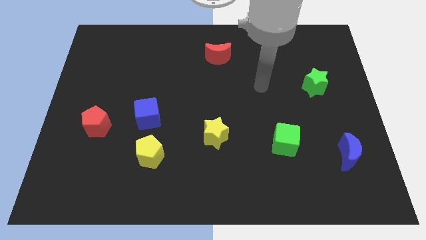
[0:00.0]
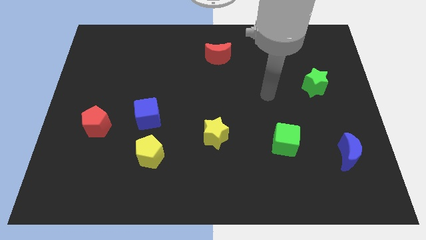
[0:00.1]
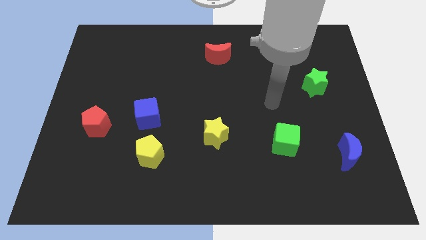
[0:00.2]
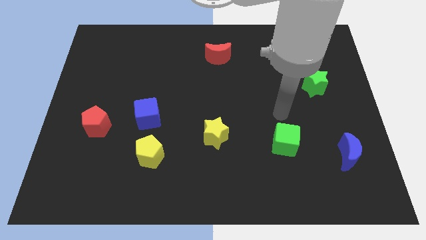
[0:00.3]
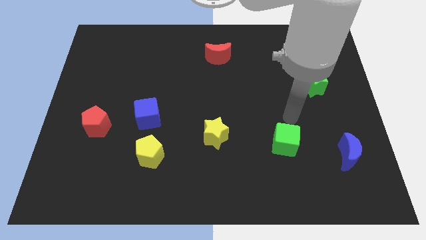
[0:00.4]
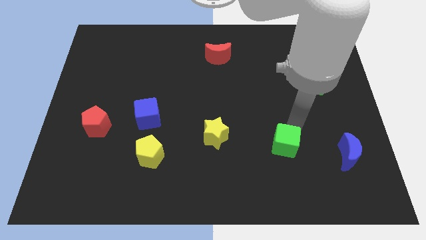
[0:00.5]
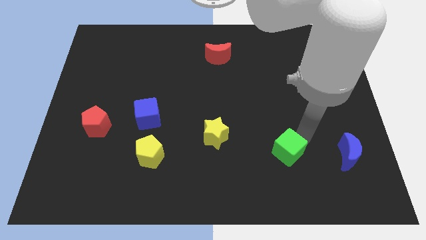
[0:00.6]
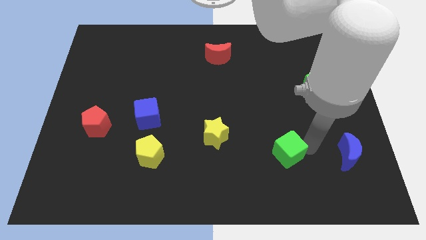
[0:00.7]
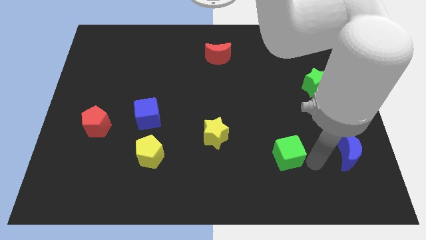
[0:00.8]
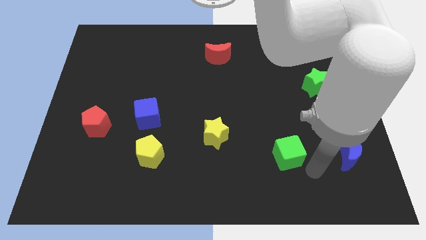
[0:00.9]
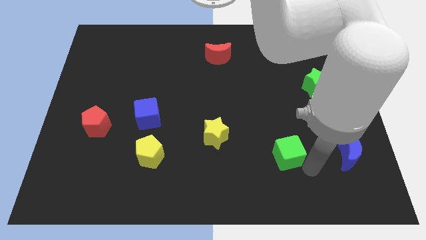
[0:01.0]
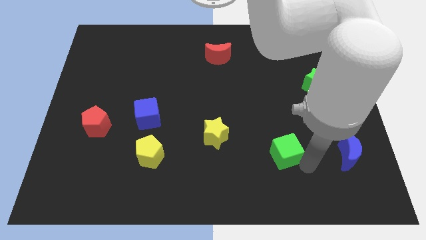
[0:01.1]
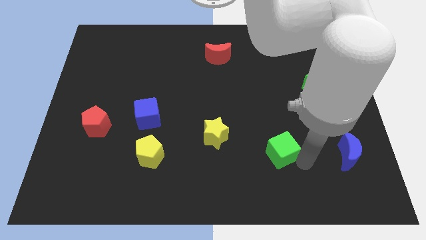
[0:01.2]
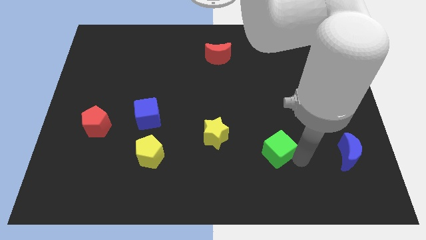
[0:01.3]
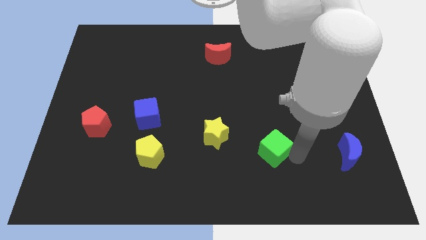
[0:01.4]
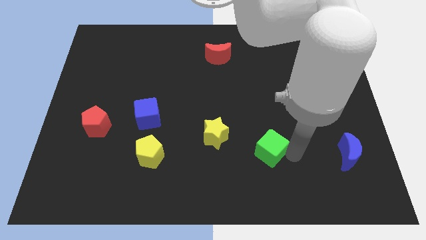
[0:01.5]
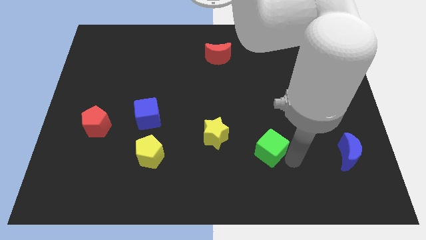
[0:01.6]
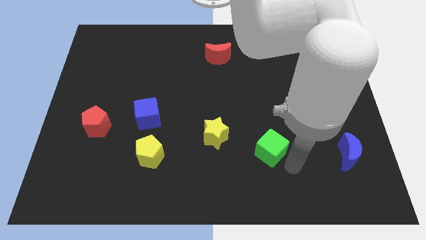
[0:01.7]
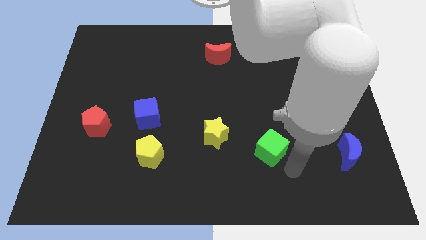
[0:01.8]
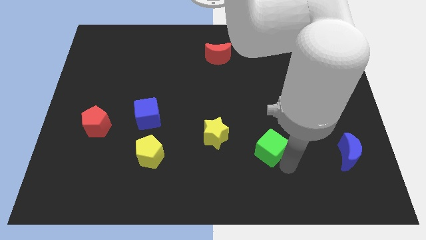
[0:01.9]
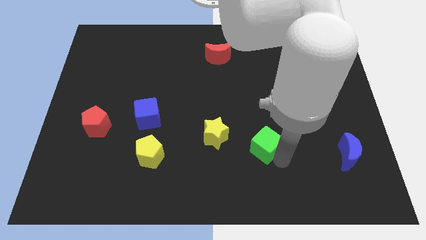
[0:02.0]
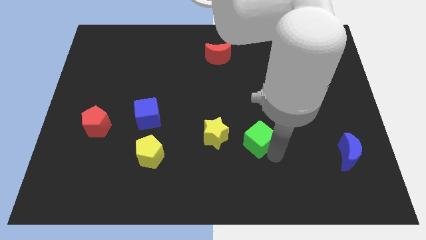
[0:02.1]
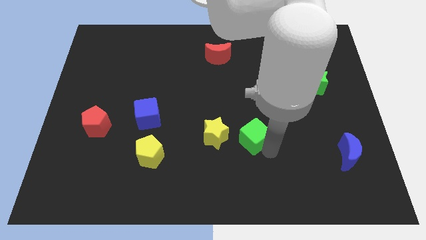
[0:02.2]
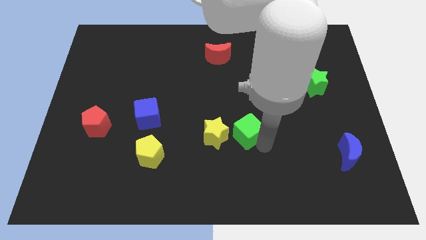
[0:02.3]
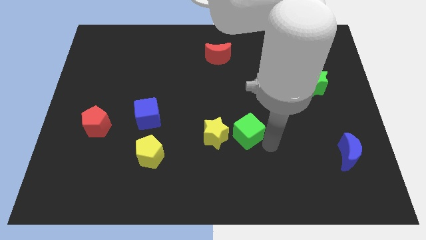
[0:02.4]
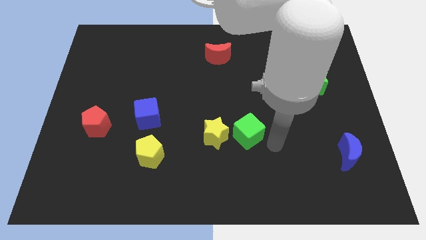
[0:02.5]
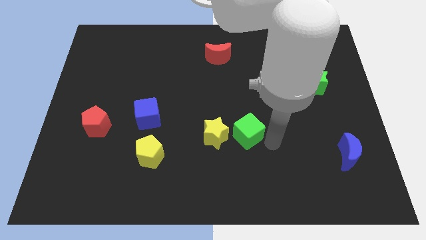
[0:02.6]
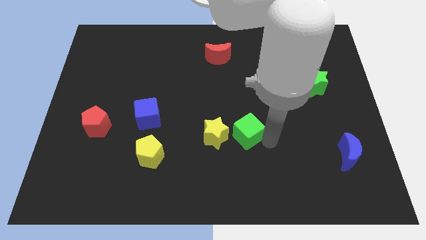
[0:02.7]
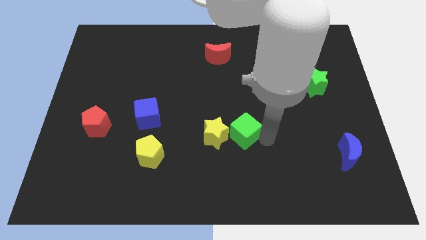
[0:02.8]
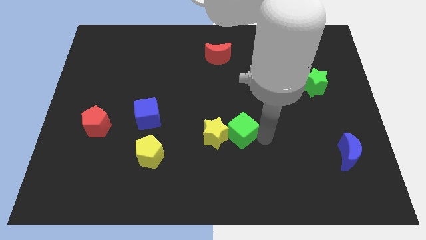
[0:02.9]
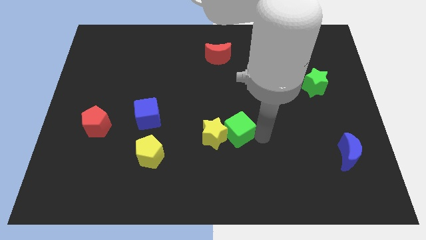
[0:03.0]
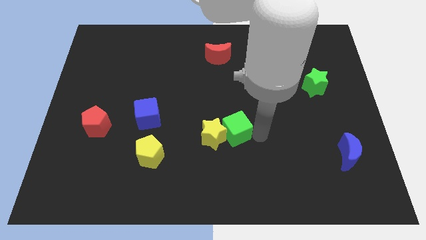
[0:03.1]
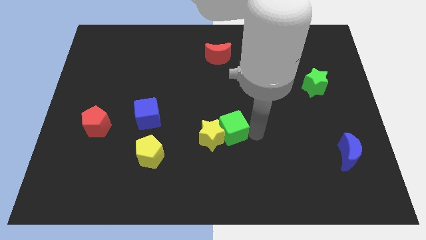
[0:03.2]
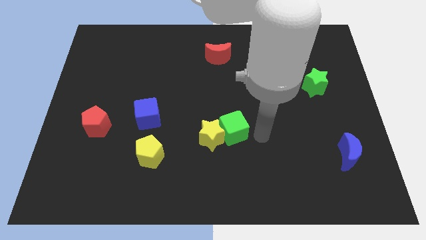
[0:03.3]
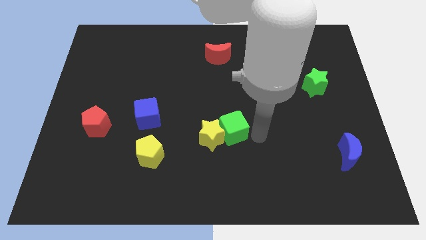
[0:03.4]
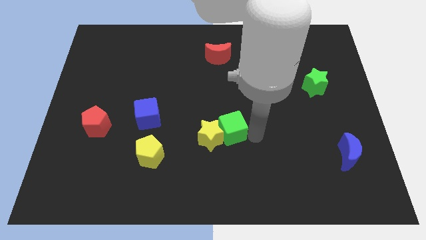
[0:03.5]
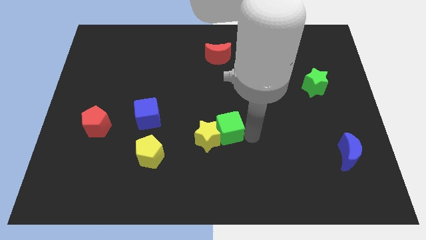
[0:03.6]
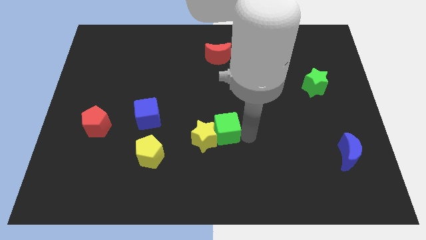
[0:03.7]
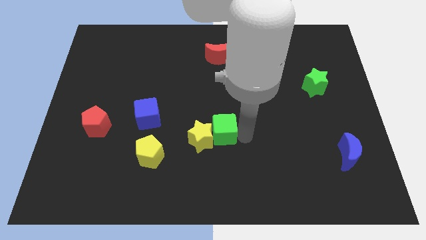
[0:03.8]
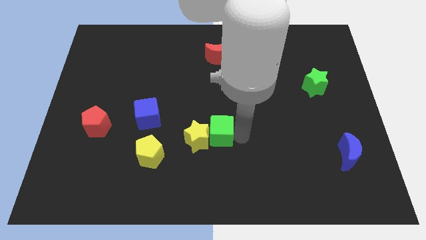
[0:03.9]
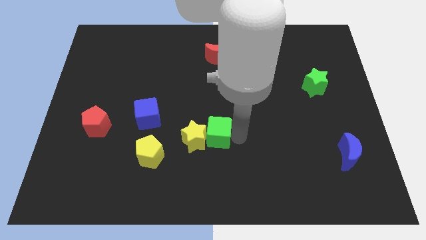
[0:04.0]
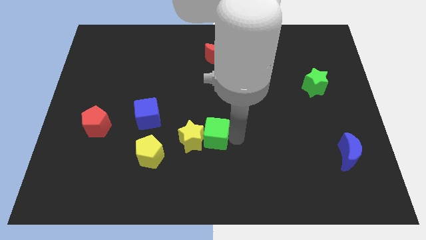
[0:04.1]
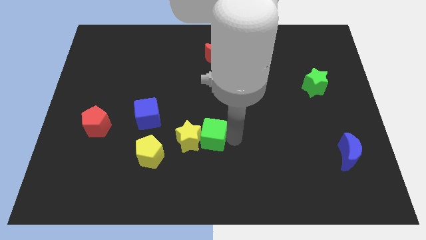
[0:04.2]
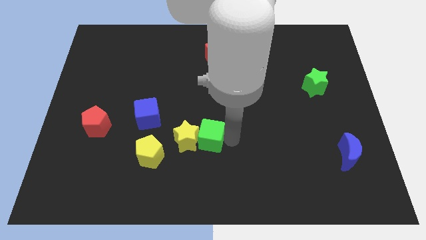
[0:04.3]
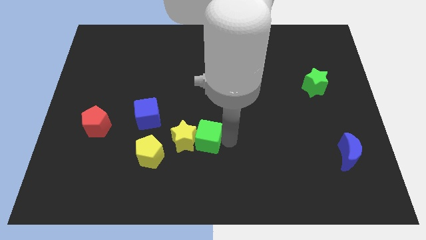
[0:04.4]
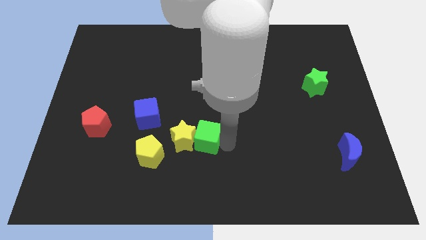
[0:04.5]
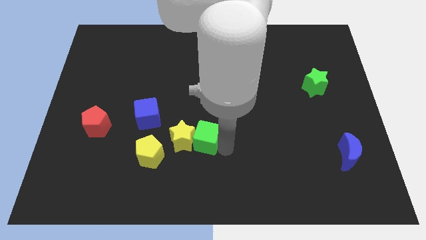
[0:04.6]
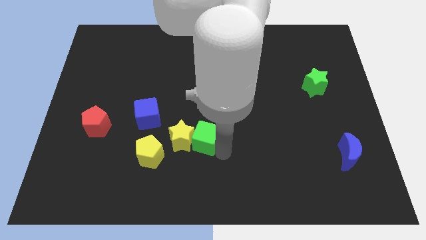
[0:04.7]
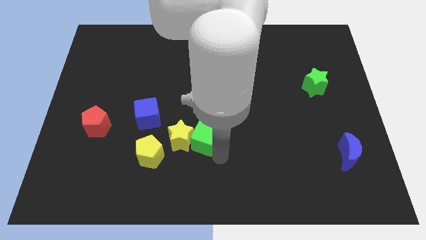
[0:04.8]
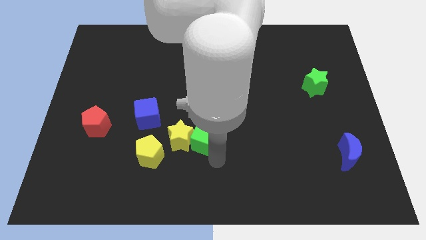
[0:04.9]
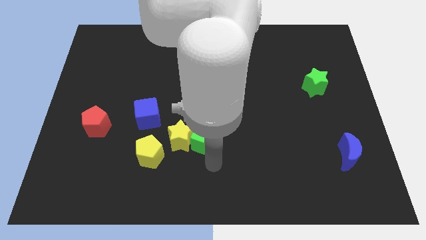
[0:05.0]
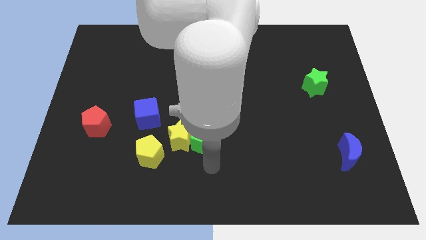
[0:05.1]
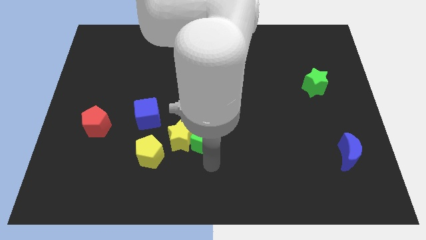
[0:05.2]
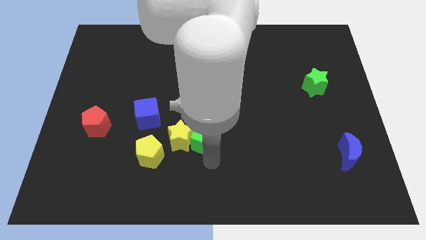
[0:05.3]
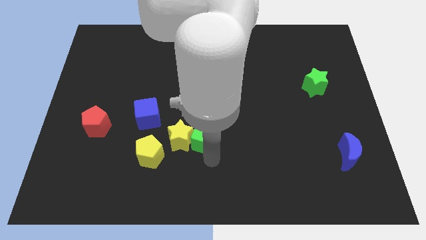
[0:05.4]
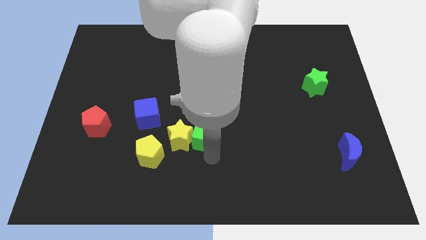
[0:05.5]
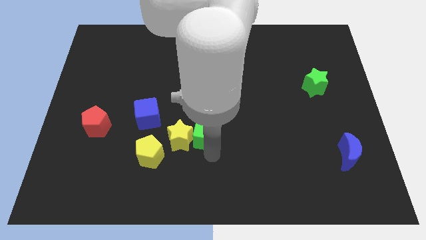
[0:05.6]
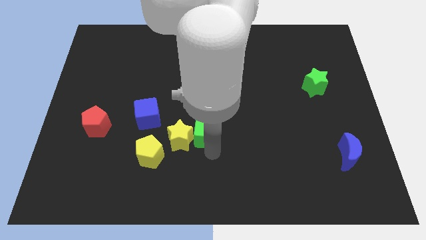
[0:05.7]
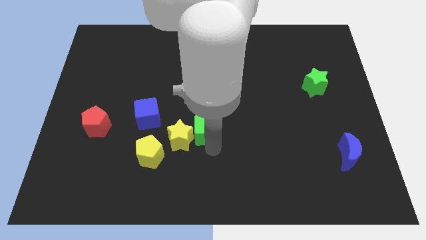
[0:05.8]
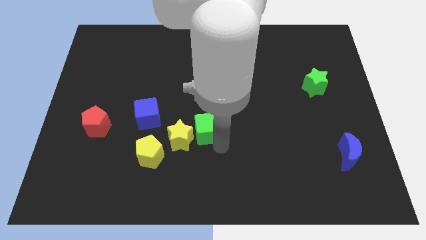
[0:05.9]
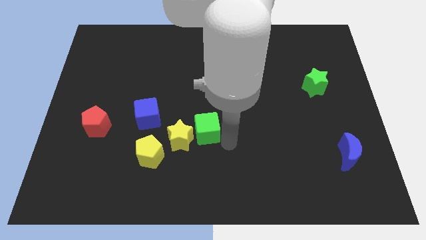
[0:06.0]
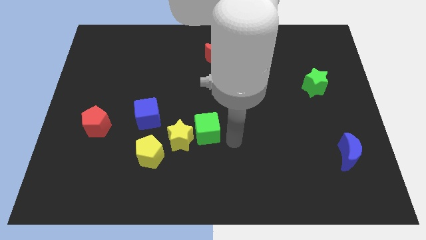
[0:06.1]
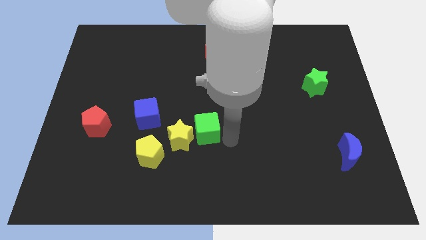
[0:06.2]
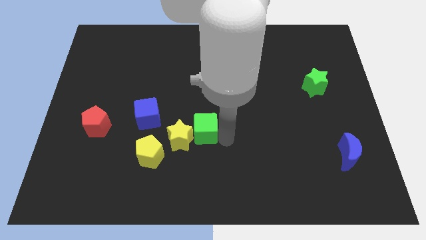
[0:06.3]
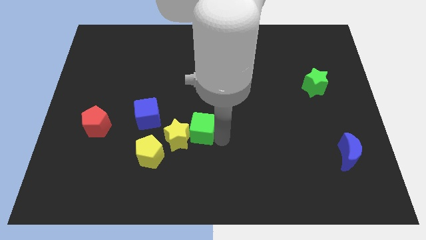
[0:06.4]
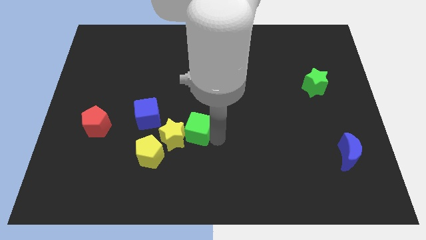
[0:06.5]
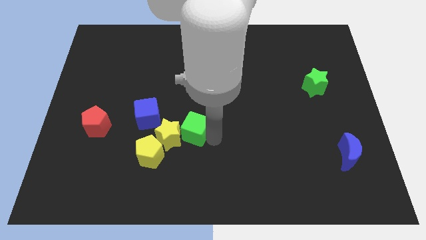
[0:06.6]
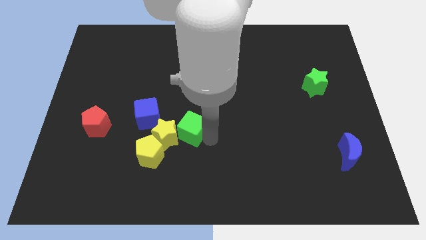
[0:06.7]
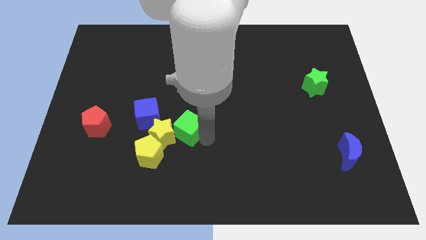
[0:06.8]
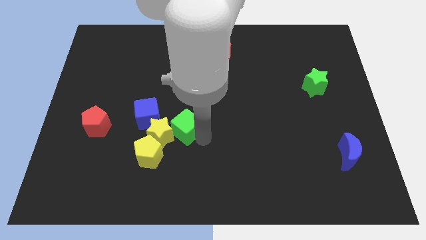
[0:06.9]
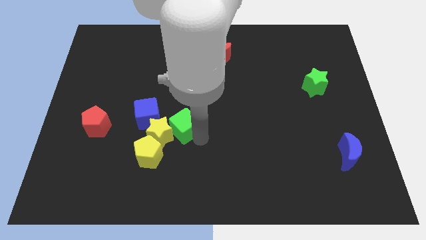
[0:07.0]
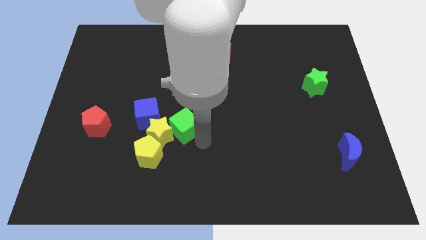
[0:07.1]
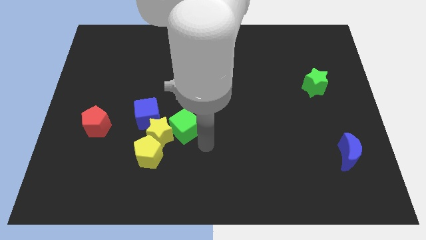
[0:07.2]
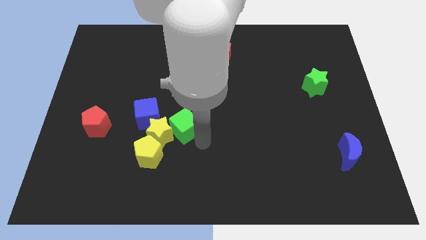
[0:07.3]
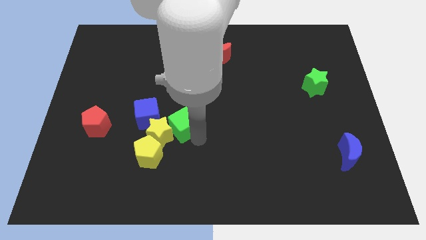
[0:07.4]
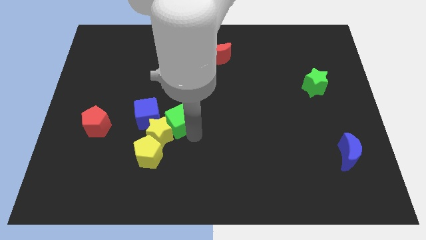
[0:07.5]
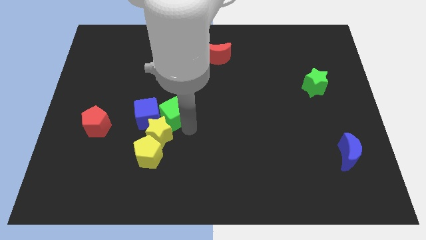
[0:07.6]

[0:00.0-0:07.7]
slide the green cube towards the blue cube
